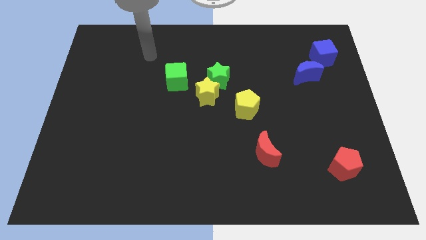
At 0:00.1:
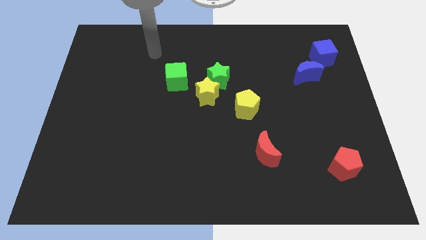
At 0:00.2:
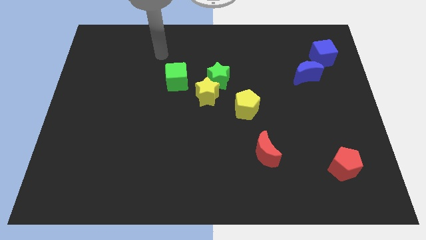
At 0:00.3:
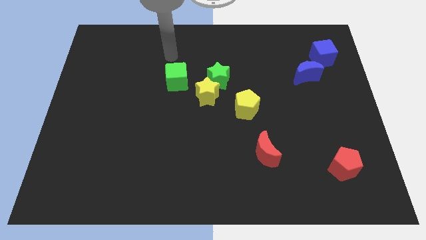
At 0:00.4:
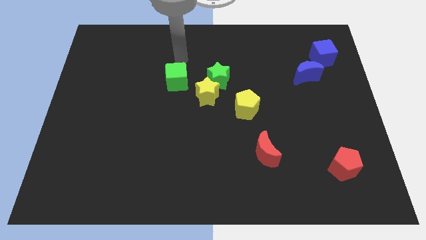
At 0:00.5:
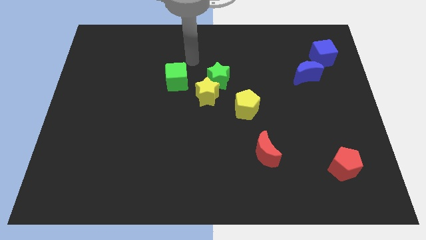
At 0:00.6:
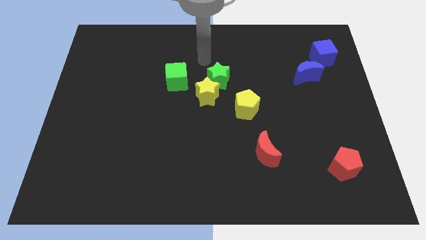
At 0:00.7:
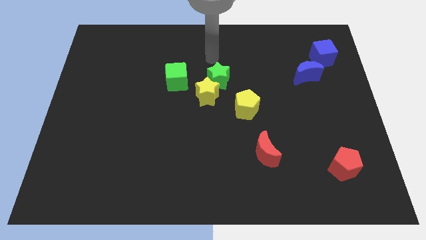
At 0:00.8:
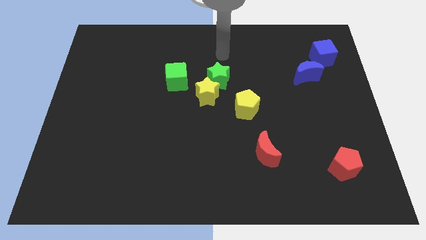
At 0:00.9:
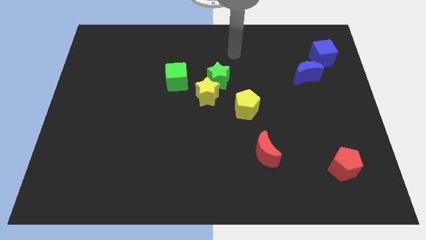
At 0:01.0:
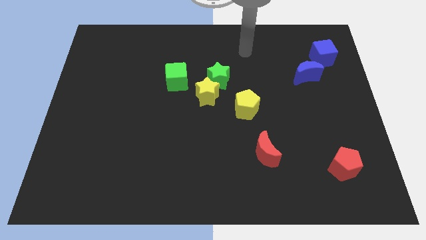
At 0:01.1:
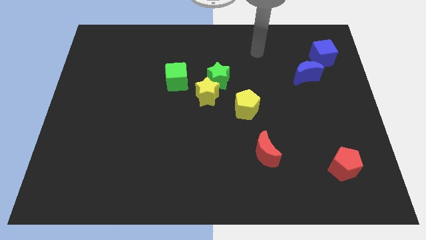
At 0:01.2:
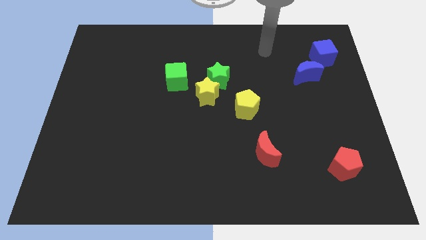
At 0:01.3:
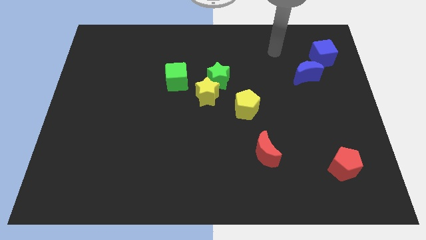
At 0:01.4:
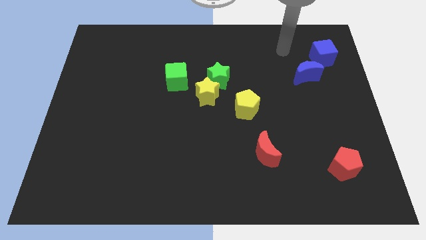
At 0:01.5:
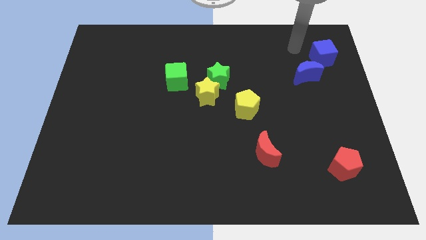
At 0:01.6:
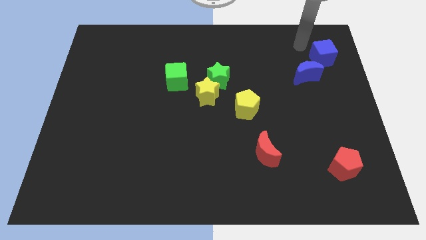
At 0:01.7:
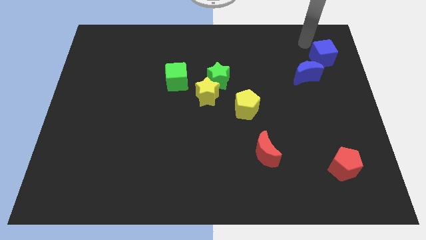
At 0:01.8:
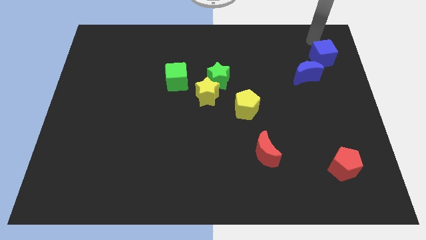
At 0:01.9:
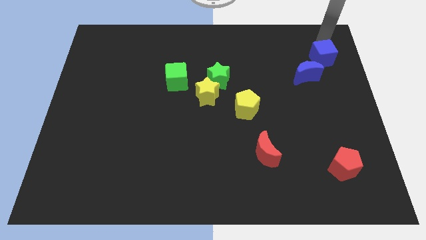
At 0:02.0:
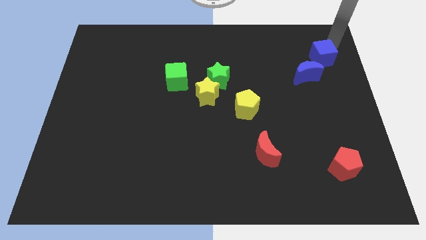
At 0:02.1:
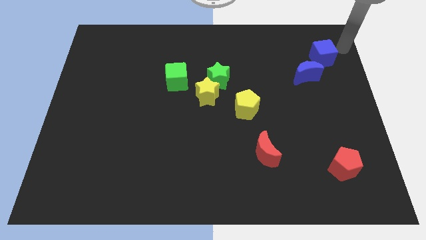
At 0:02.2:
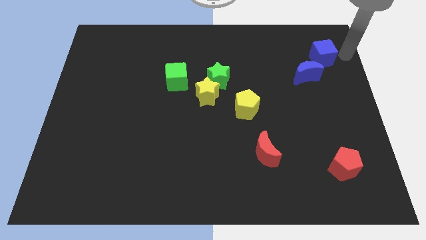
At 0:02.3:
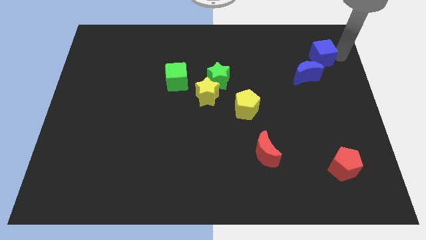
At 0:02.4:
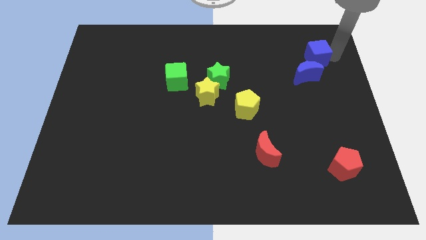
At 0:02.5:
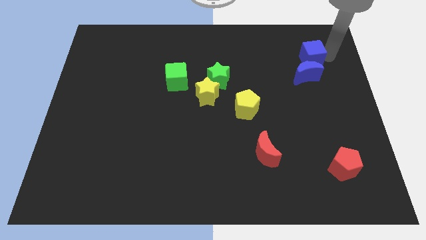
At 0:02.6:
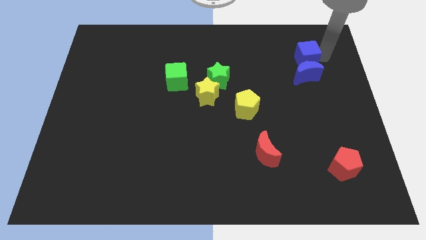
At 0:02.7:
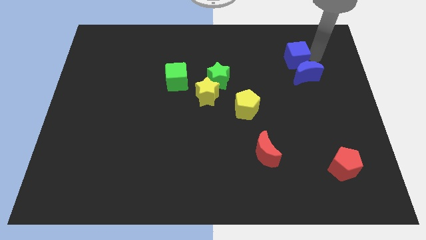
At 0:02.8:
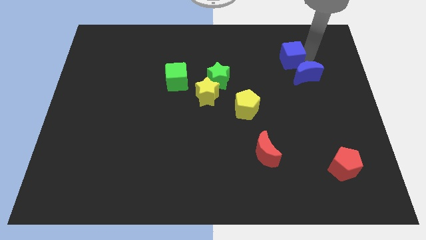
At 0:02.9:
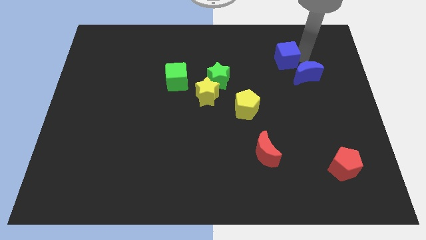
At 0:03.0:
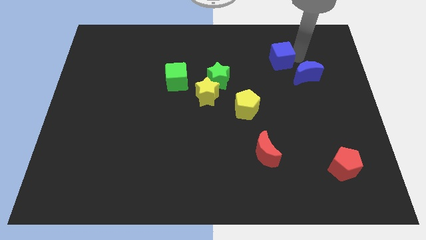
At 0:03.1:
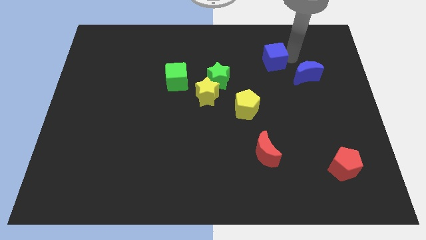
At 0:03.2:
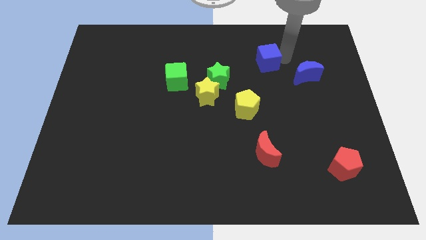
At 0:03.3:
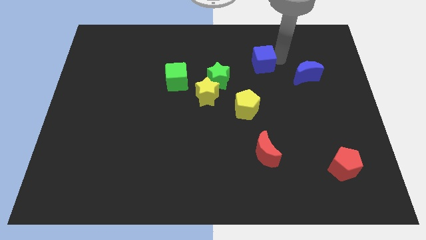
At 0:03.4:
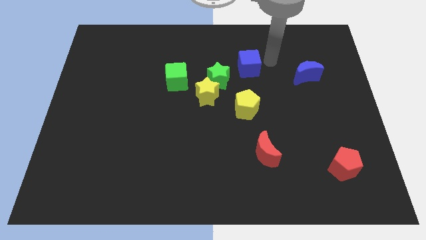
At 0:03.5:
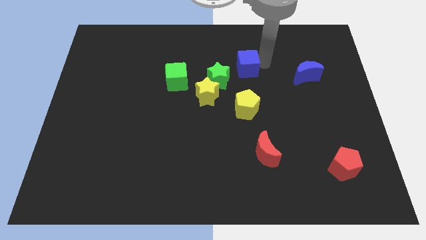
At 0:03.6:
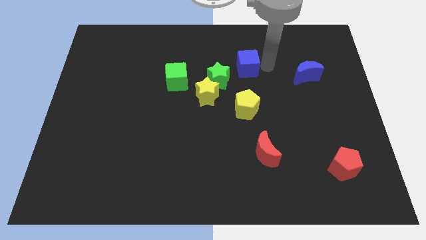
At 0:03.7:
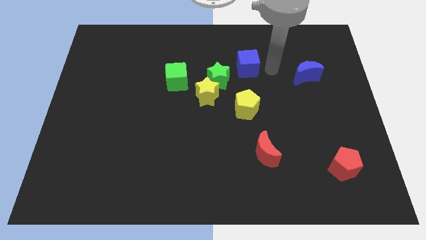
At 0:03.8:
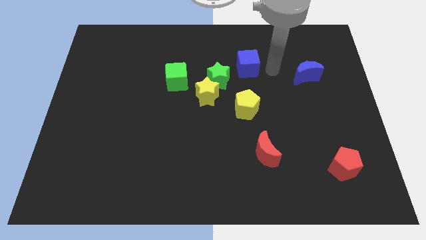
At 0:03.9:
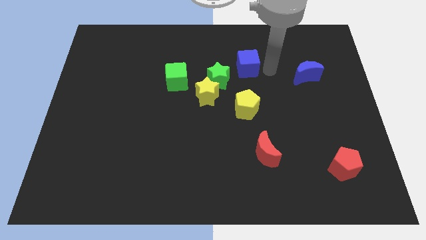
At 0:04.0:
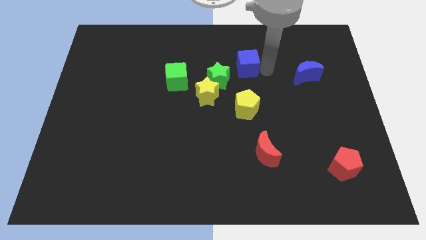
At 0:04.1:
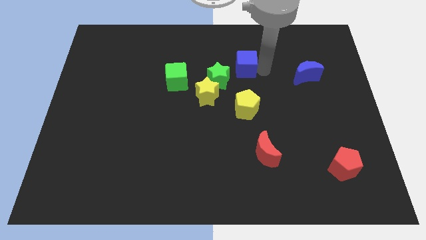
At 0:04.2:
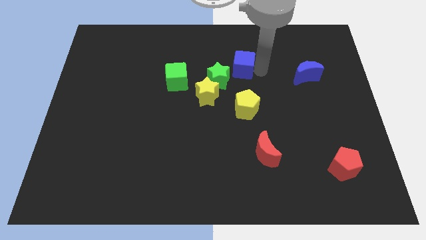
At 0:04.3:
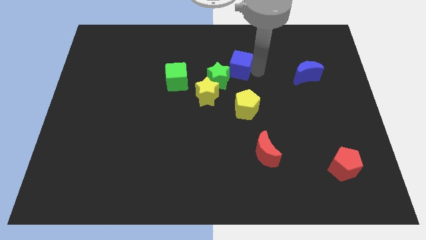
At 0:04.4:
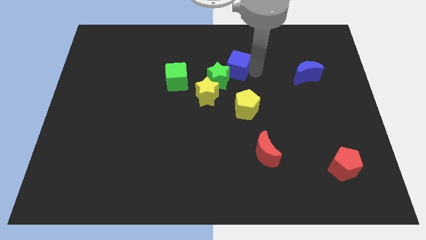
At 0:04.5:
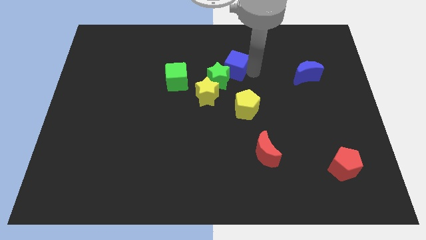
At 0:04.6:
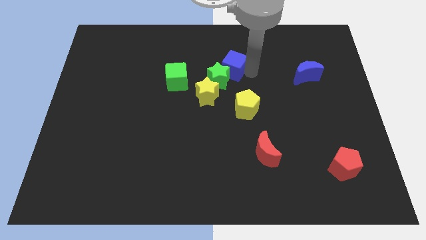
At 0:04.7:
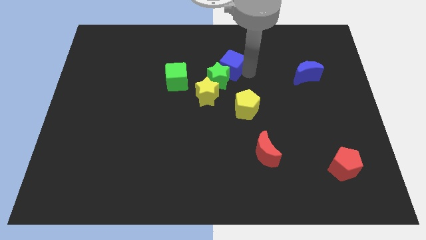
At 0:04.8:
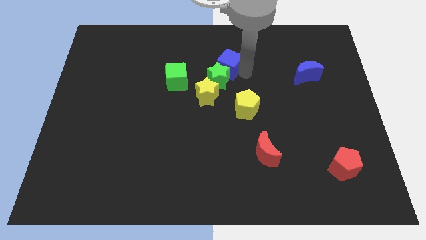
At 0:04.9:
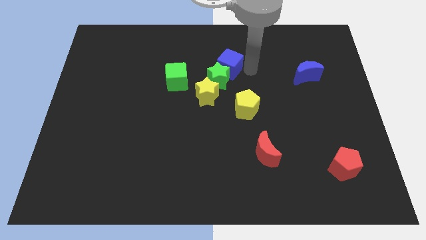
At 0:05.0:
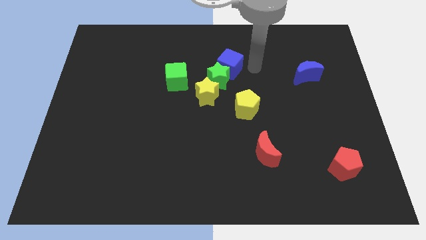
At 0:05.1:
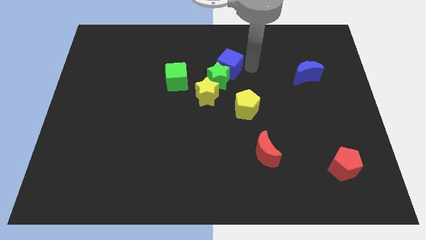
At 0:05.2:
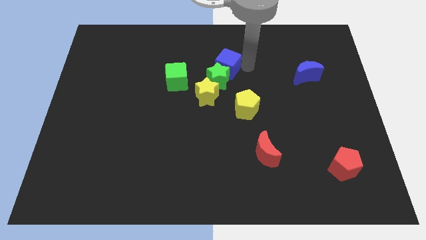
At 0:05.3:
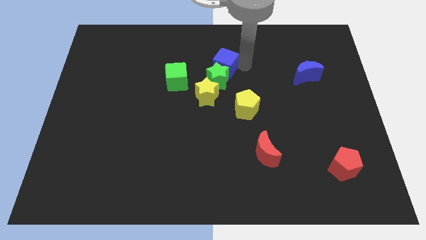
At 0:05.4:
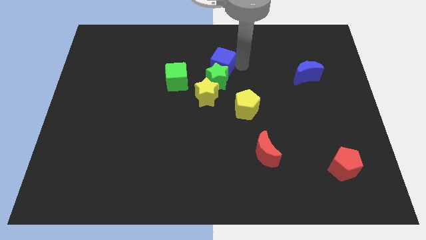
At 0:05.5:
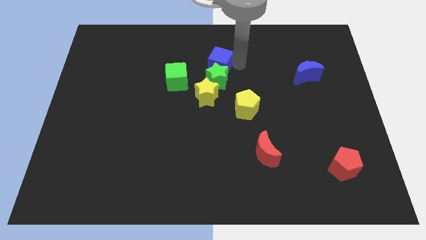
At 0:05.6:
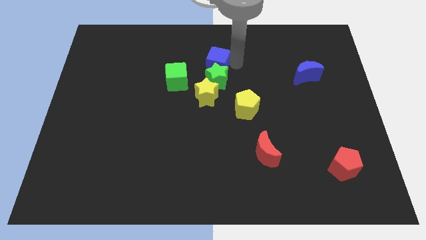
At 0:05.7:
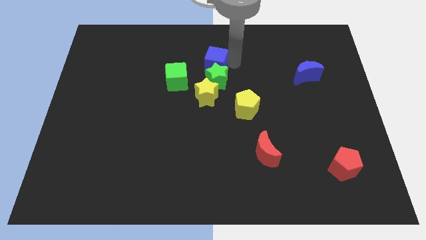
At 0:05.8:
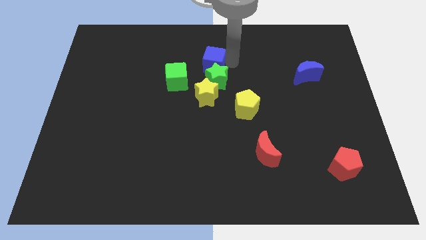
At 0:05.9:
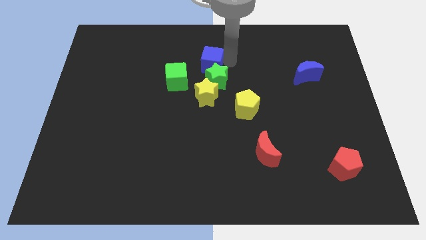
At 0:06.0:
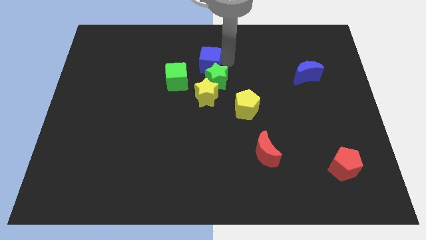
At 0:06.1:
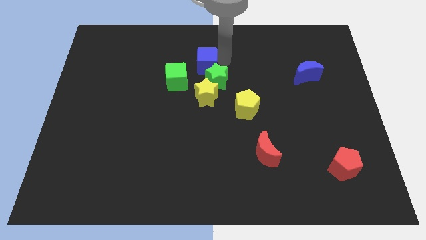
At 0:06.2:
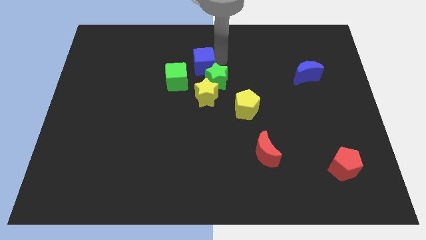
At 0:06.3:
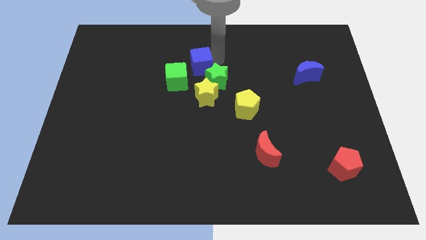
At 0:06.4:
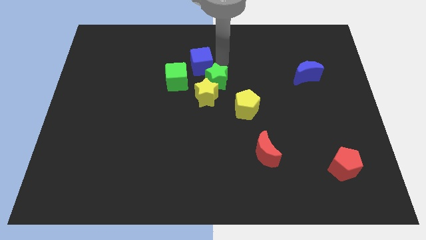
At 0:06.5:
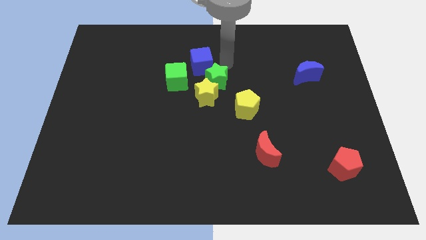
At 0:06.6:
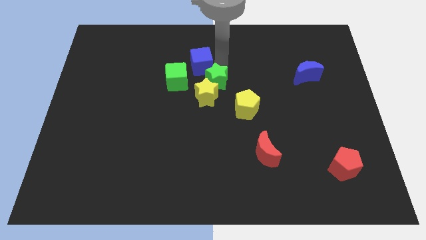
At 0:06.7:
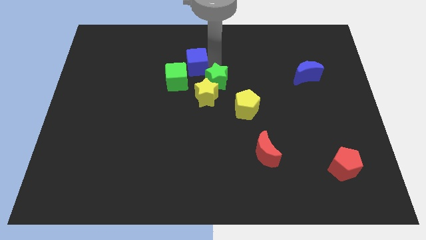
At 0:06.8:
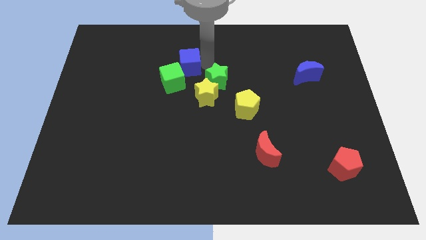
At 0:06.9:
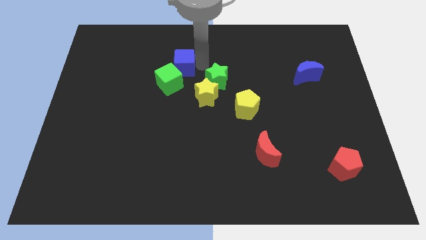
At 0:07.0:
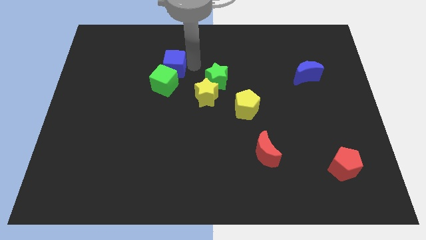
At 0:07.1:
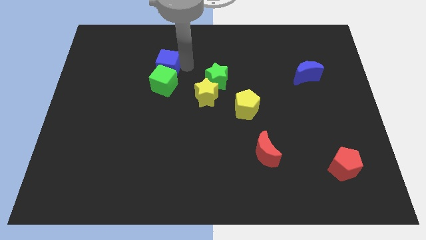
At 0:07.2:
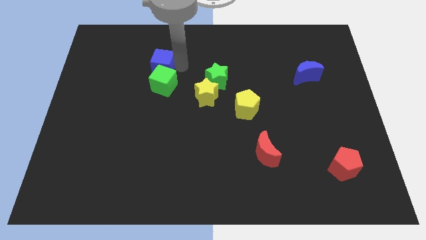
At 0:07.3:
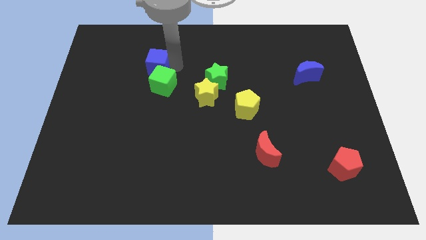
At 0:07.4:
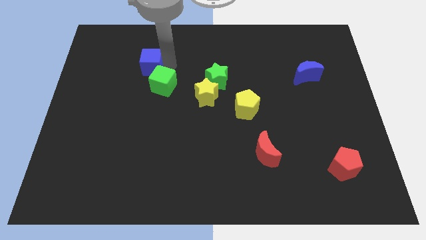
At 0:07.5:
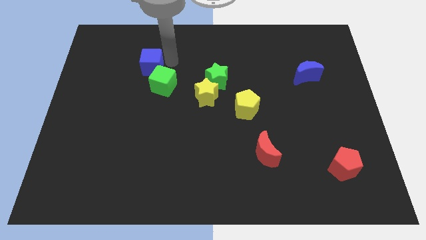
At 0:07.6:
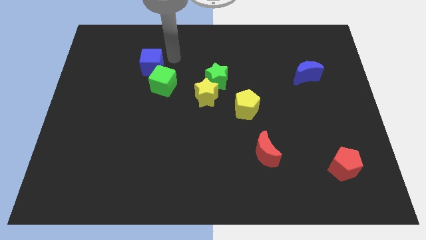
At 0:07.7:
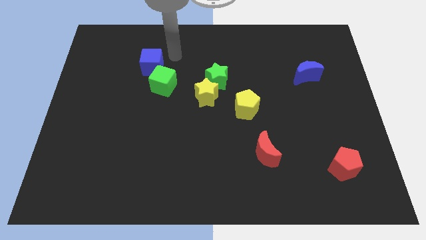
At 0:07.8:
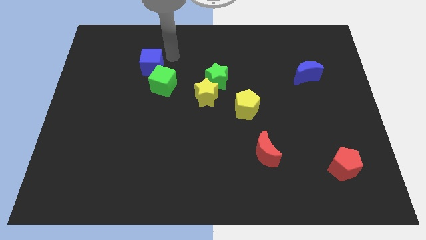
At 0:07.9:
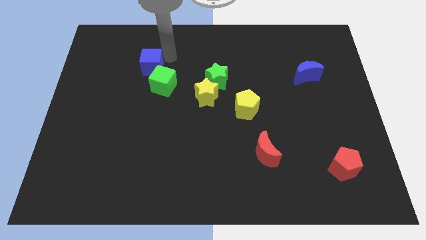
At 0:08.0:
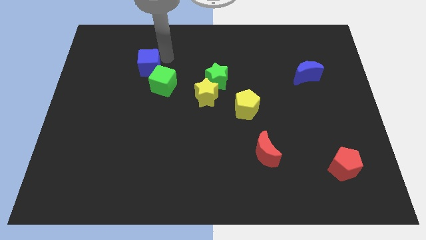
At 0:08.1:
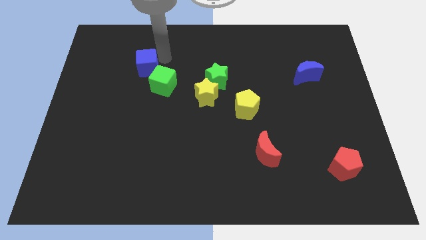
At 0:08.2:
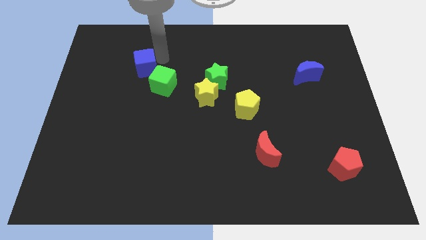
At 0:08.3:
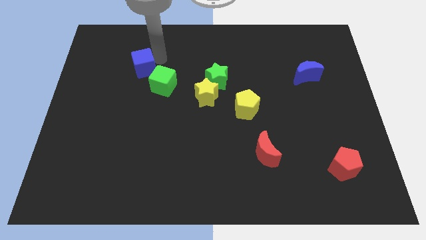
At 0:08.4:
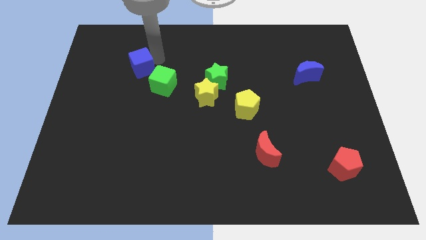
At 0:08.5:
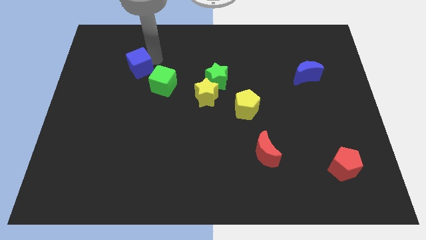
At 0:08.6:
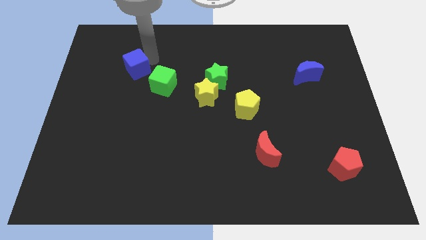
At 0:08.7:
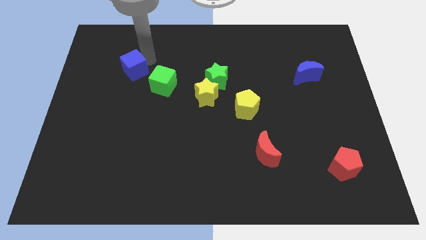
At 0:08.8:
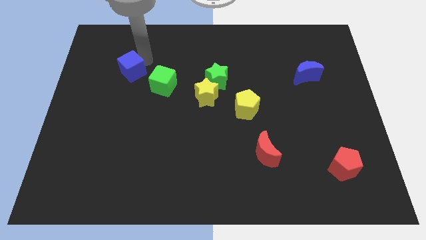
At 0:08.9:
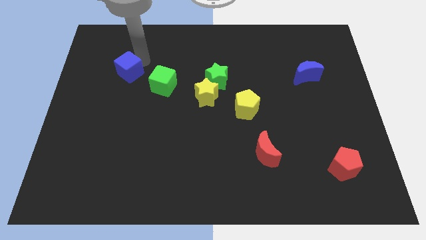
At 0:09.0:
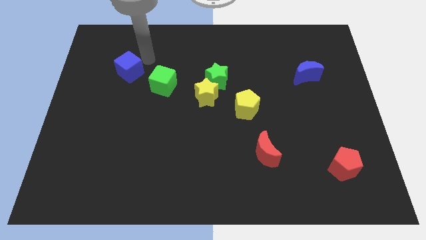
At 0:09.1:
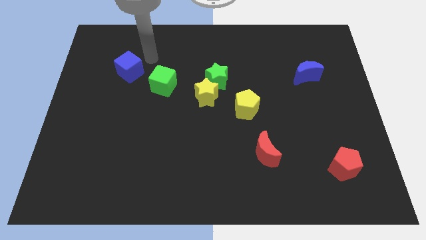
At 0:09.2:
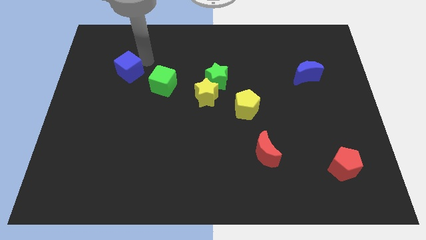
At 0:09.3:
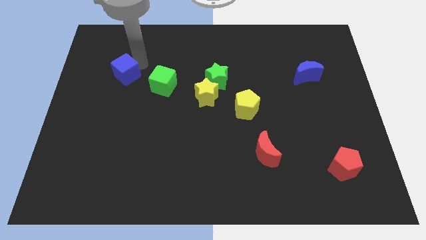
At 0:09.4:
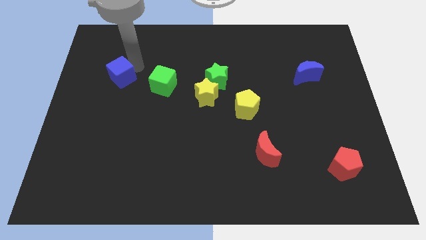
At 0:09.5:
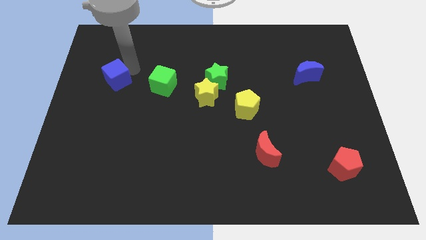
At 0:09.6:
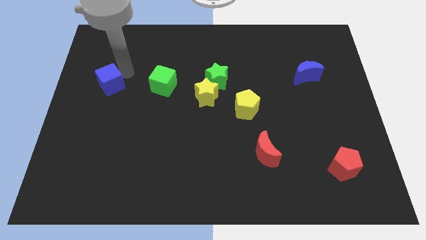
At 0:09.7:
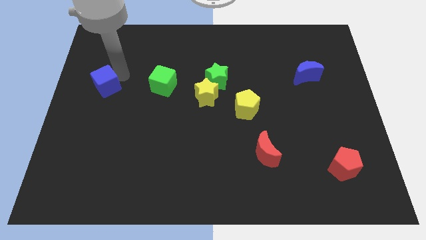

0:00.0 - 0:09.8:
put the blue cube to the left side of the board
